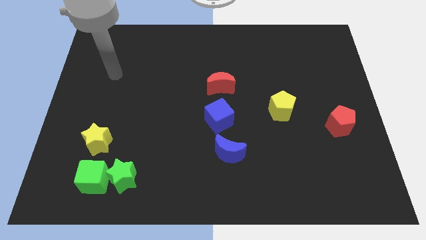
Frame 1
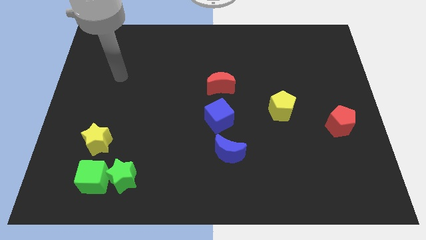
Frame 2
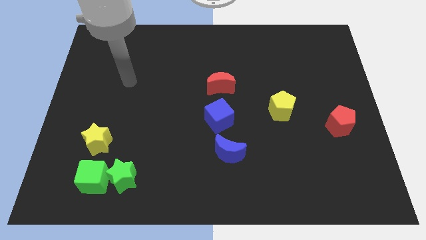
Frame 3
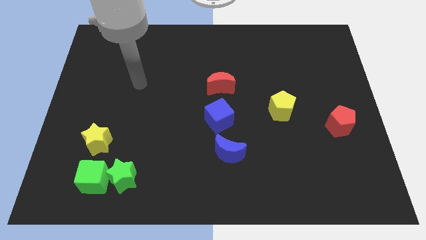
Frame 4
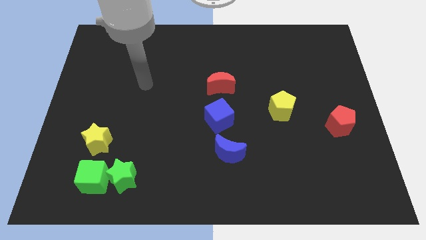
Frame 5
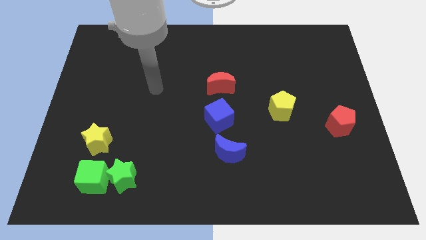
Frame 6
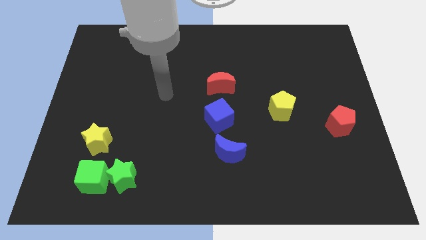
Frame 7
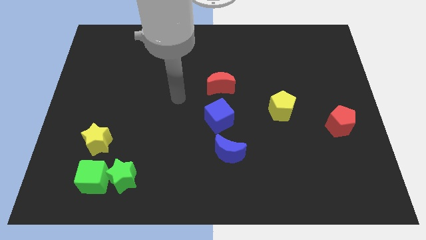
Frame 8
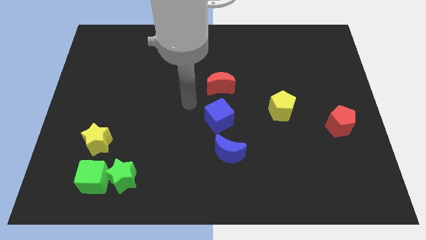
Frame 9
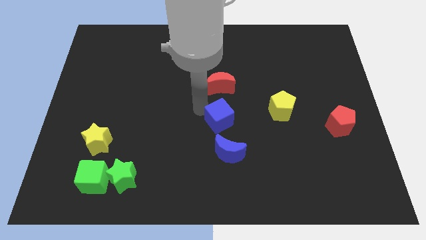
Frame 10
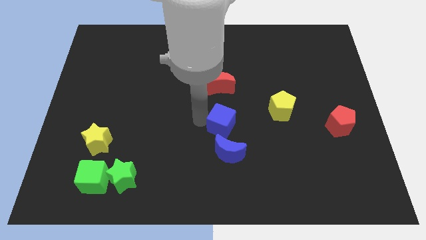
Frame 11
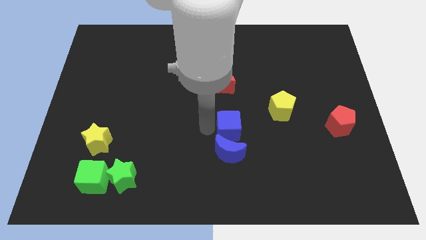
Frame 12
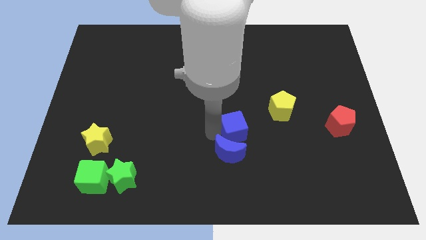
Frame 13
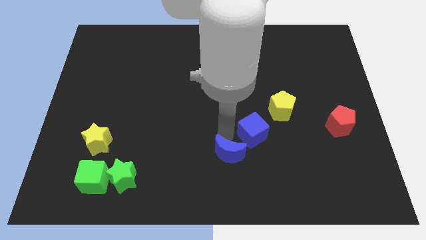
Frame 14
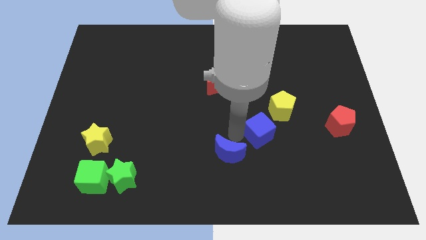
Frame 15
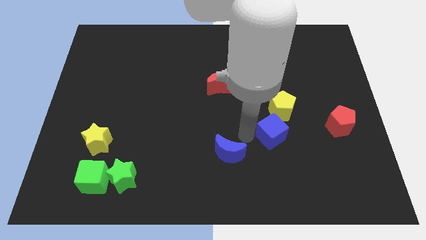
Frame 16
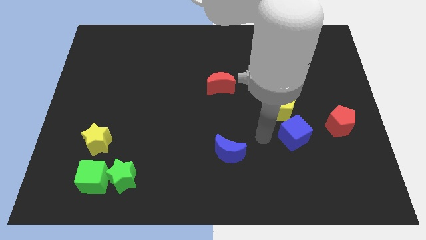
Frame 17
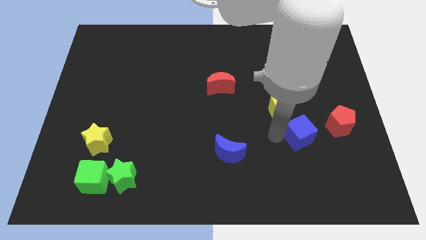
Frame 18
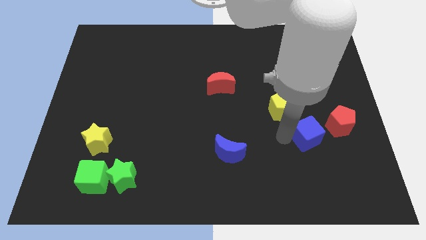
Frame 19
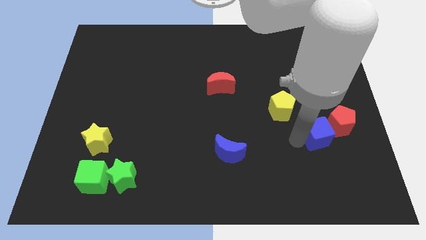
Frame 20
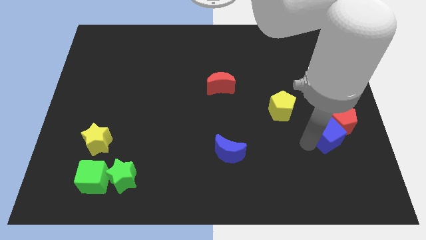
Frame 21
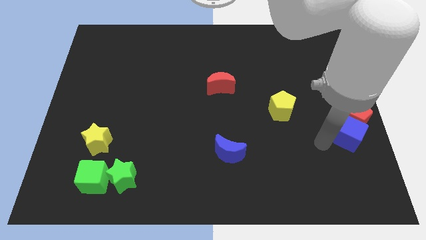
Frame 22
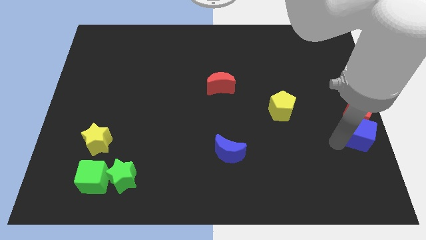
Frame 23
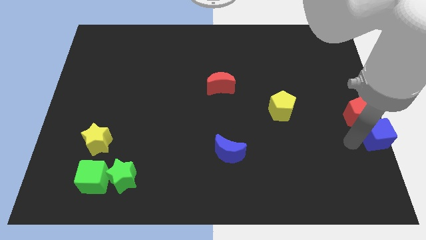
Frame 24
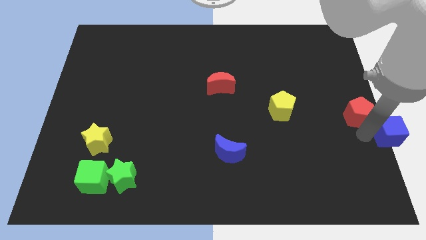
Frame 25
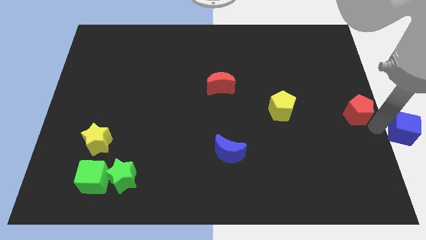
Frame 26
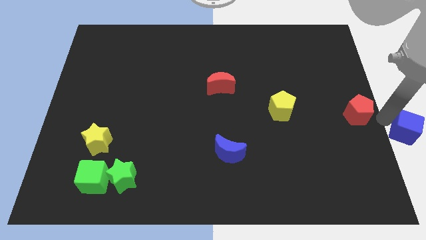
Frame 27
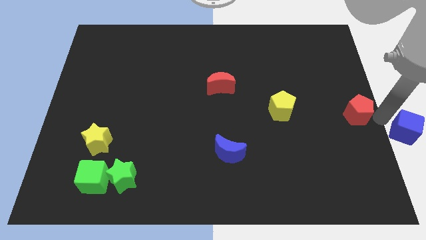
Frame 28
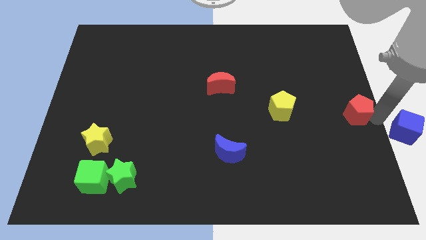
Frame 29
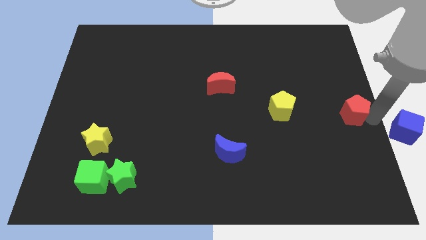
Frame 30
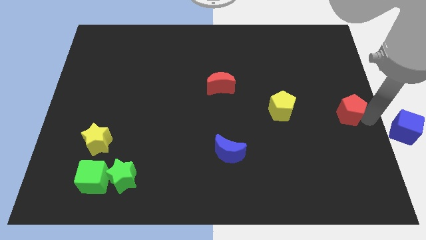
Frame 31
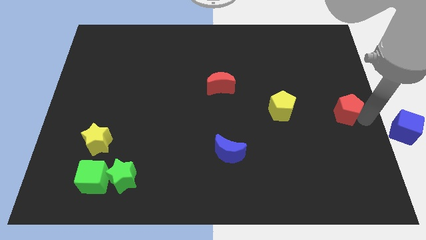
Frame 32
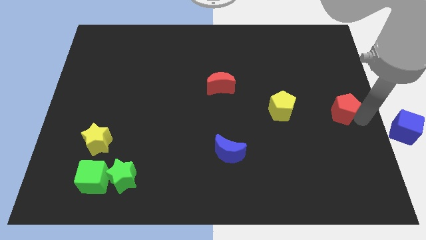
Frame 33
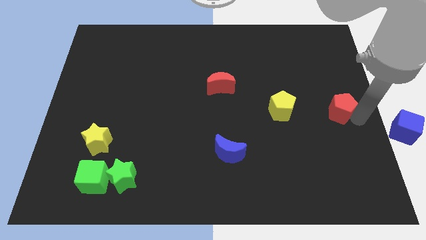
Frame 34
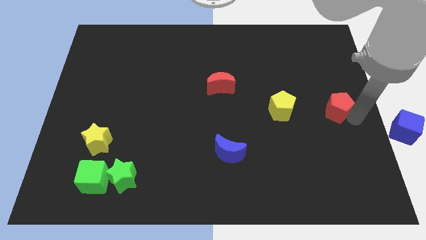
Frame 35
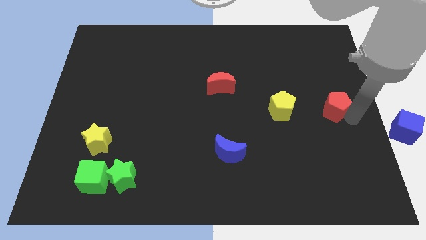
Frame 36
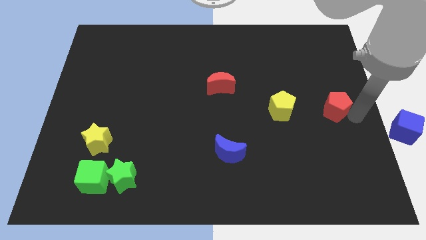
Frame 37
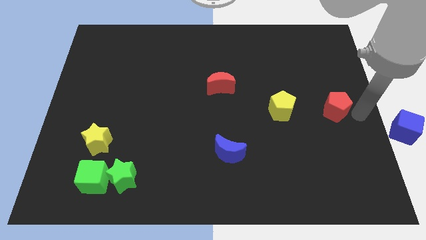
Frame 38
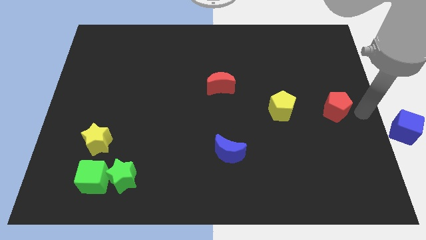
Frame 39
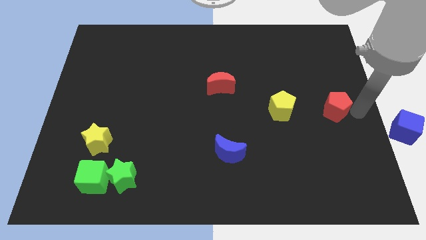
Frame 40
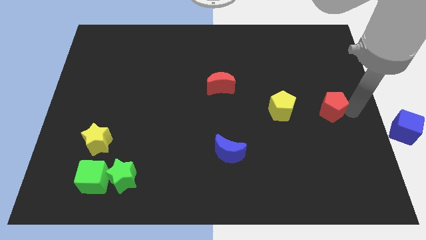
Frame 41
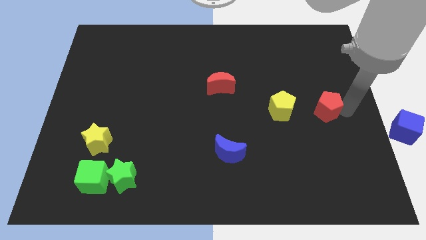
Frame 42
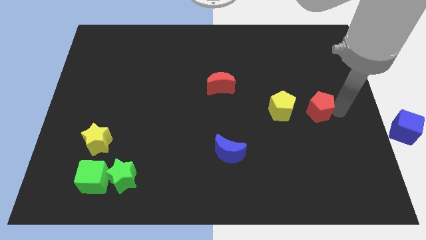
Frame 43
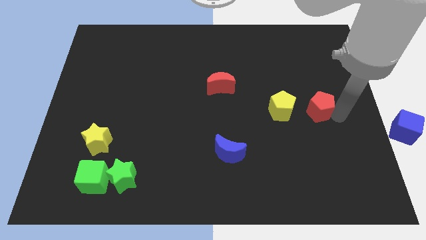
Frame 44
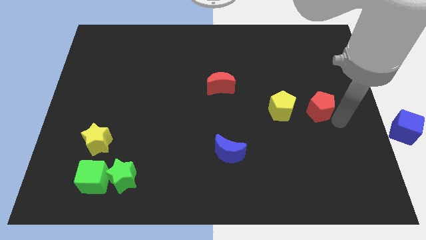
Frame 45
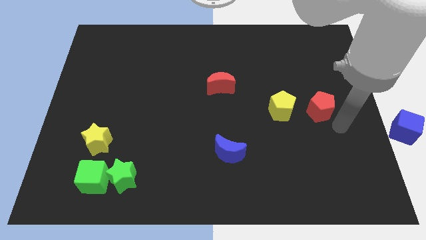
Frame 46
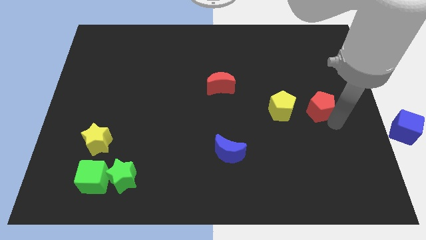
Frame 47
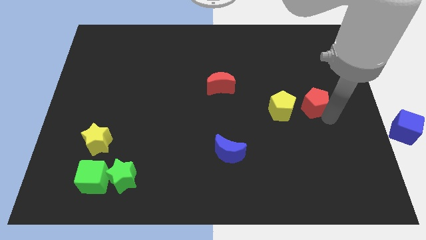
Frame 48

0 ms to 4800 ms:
slide the red pentagon diagonally up and to the right of the yellow pentagon

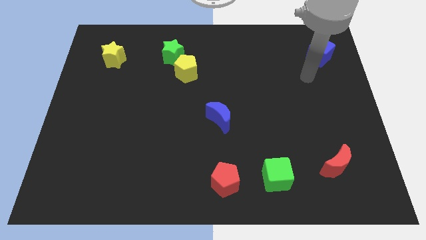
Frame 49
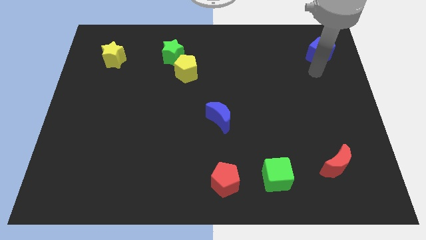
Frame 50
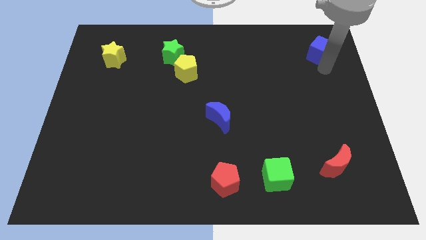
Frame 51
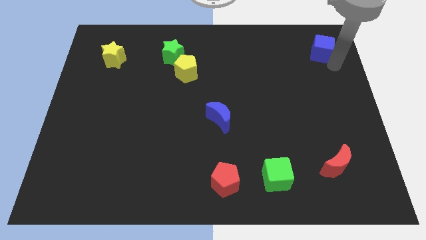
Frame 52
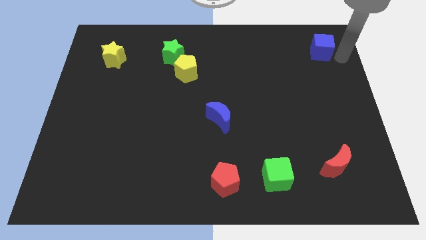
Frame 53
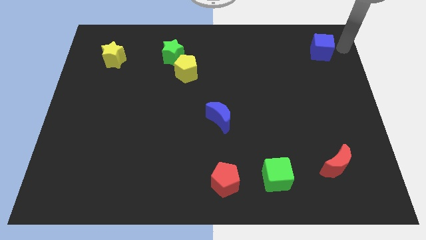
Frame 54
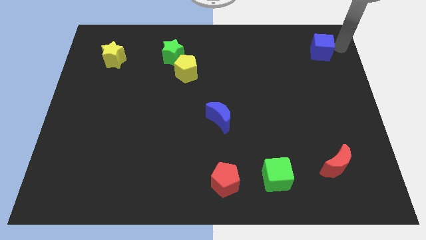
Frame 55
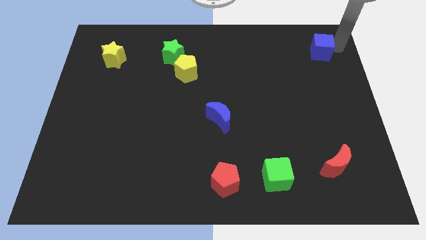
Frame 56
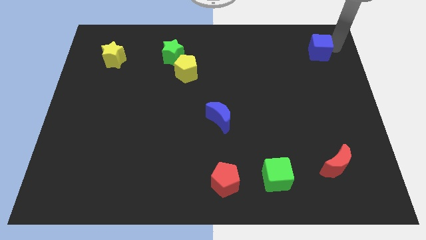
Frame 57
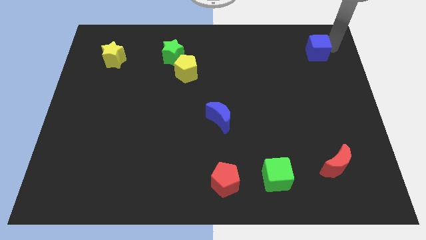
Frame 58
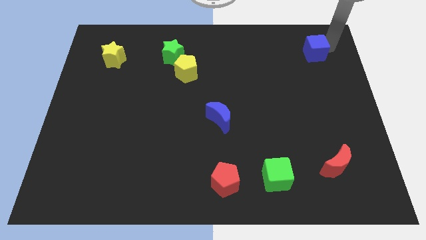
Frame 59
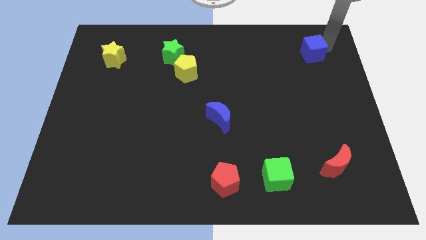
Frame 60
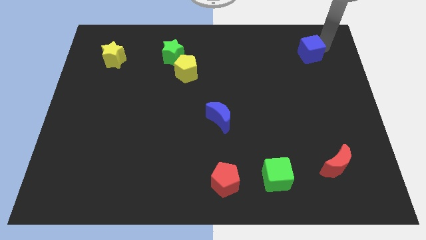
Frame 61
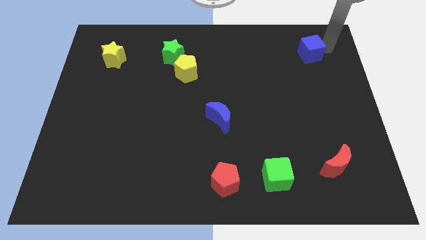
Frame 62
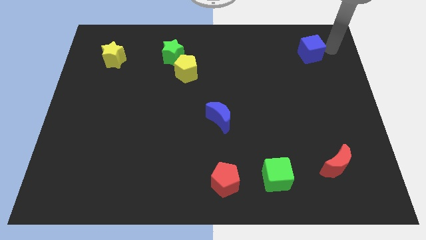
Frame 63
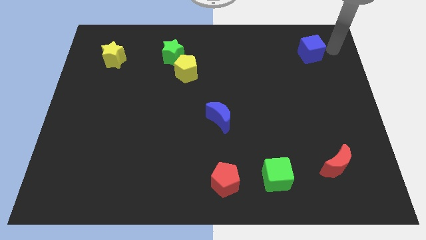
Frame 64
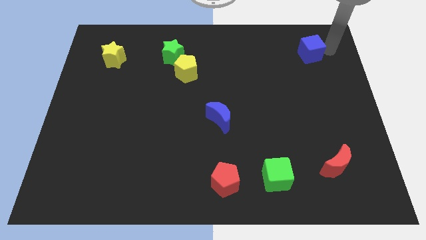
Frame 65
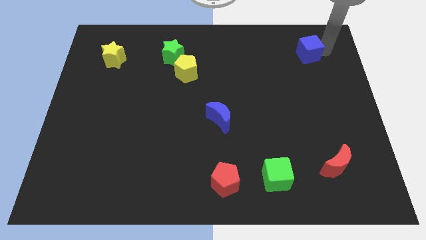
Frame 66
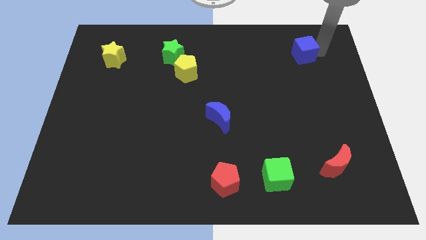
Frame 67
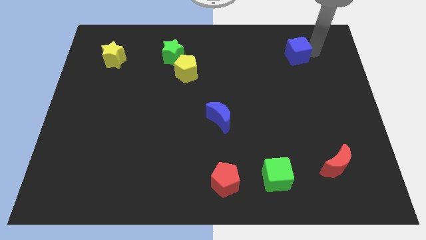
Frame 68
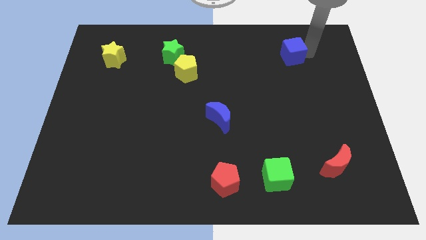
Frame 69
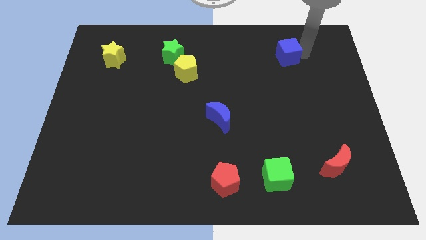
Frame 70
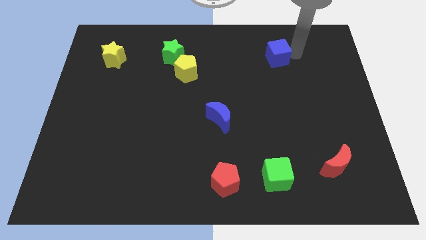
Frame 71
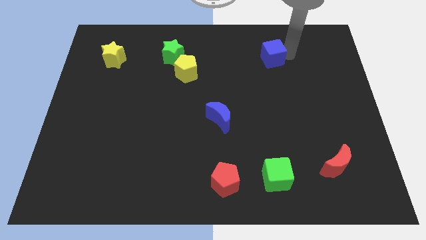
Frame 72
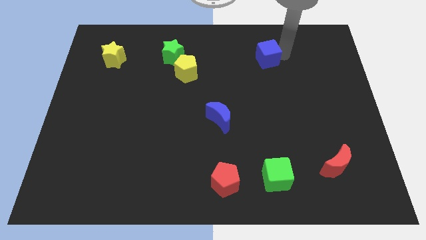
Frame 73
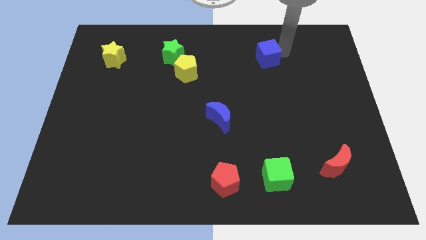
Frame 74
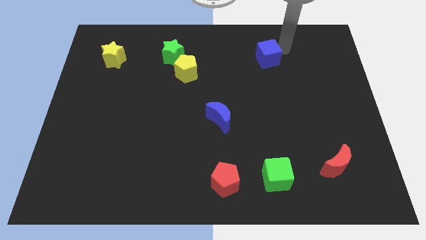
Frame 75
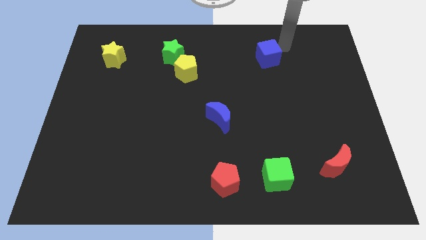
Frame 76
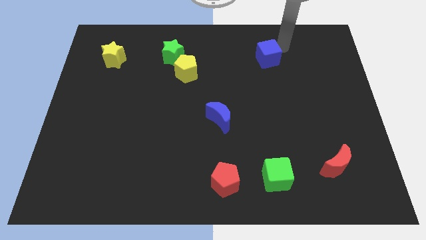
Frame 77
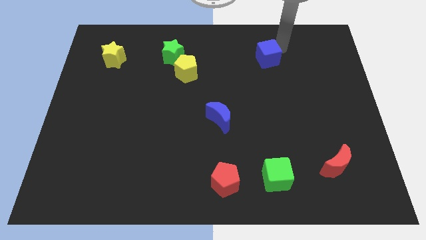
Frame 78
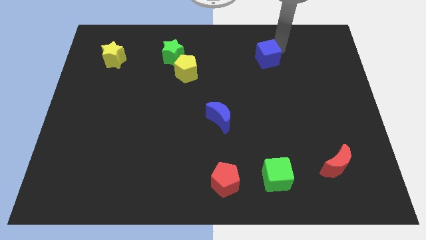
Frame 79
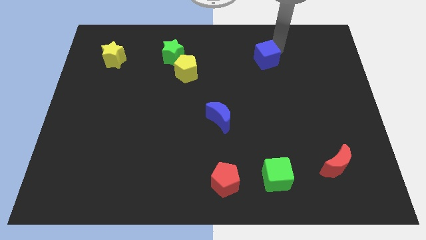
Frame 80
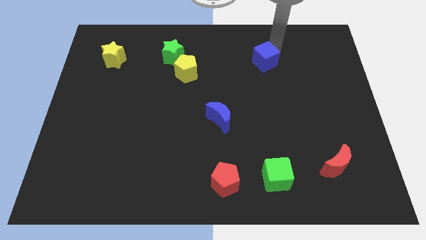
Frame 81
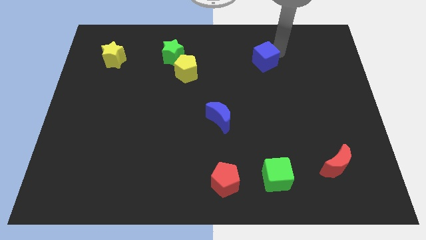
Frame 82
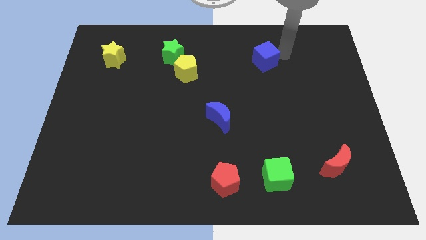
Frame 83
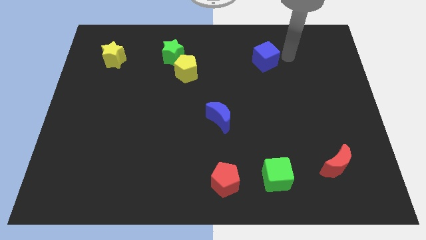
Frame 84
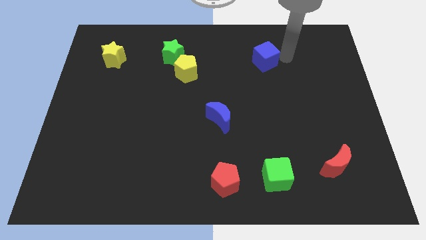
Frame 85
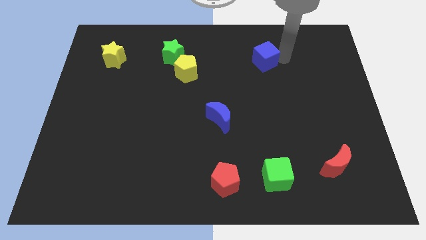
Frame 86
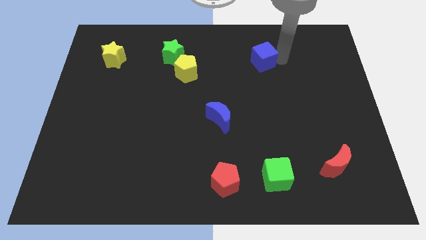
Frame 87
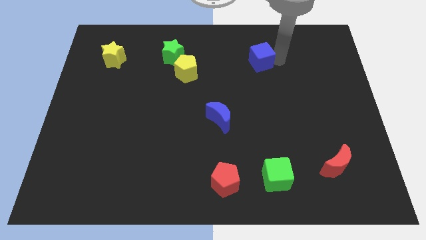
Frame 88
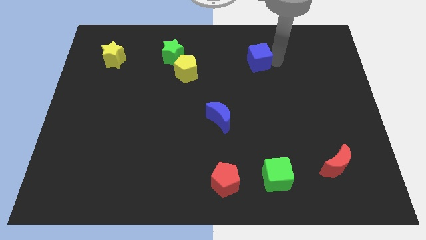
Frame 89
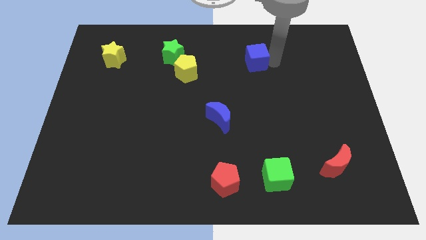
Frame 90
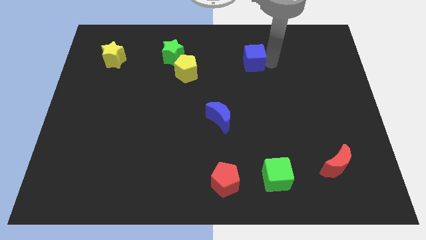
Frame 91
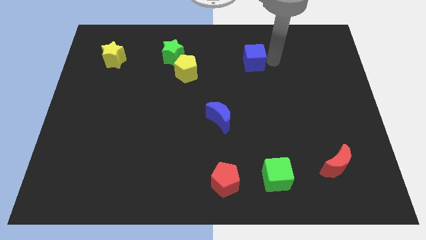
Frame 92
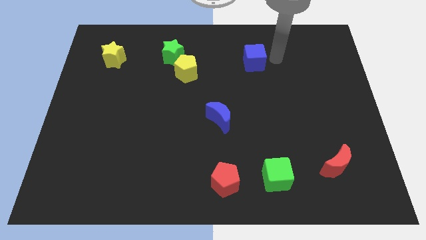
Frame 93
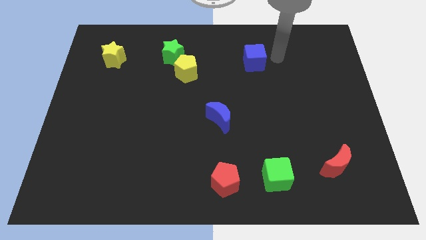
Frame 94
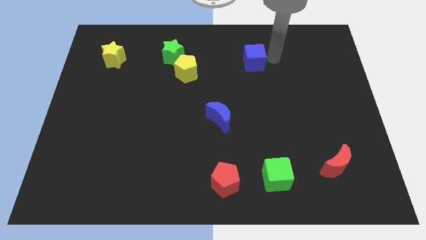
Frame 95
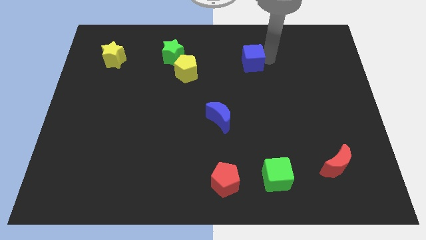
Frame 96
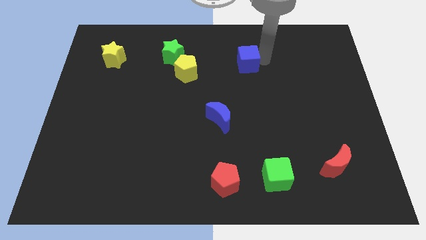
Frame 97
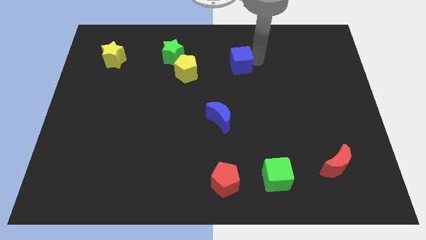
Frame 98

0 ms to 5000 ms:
slide the blue cube to the right of the yellow pentagon
